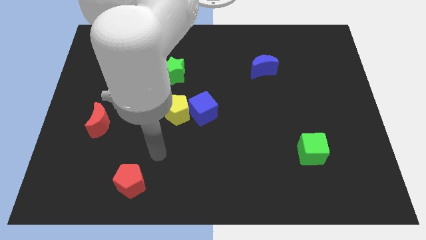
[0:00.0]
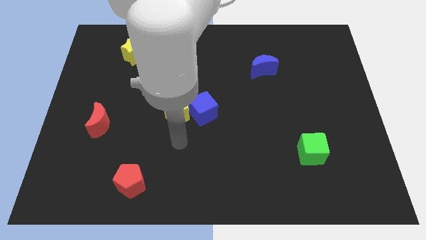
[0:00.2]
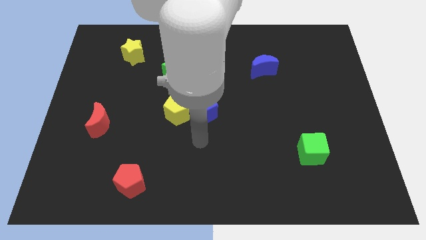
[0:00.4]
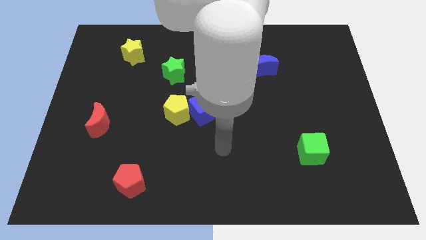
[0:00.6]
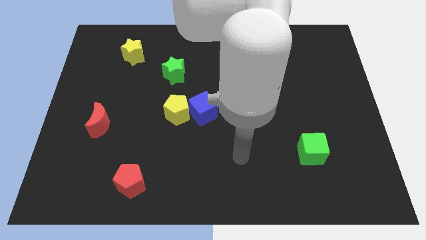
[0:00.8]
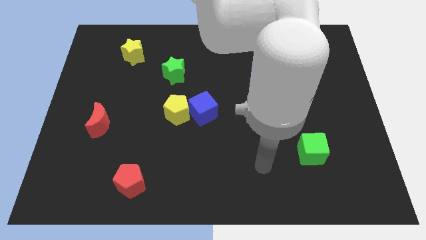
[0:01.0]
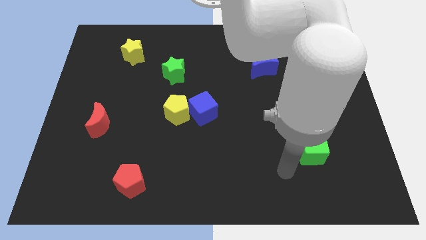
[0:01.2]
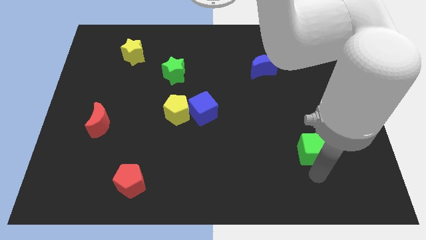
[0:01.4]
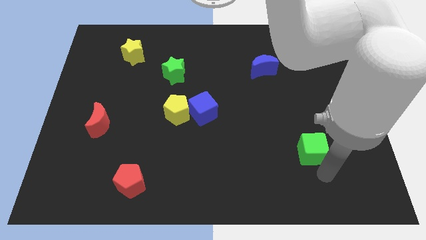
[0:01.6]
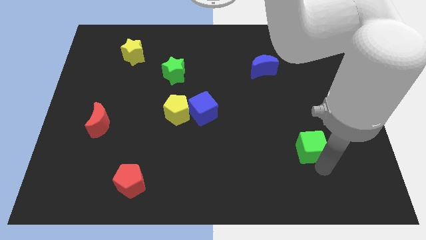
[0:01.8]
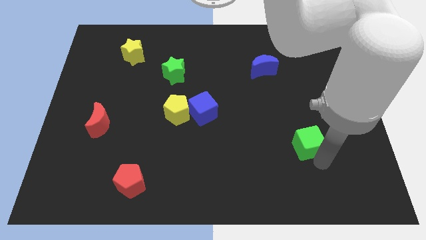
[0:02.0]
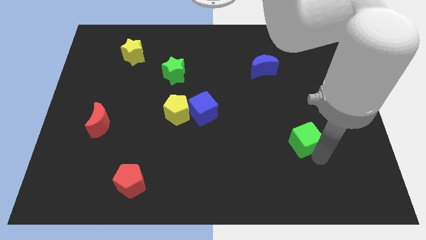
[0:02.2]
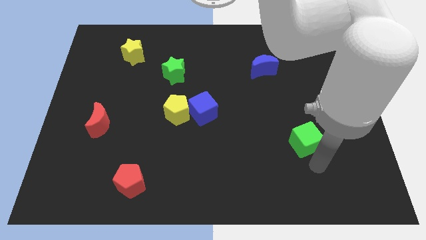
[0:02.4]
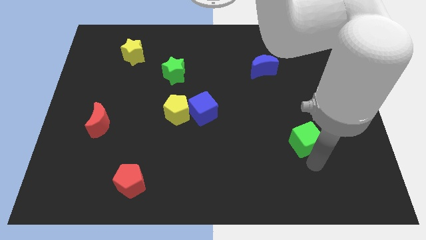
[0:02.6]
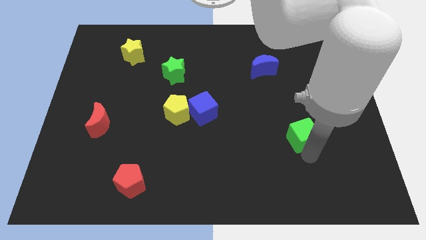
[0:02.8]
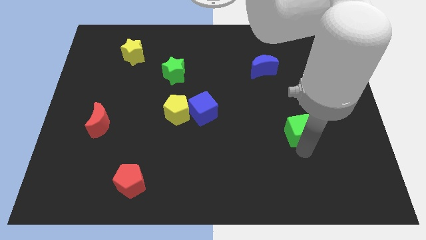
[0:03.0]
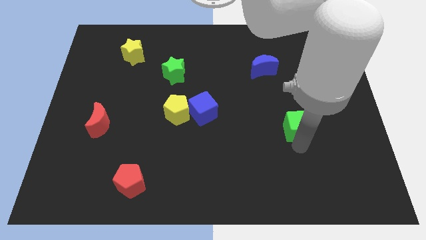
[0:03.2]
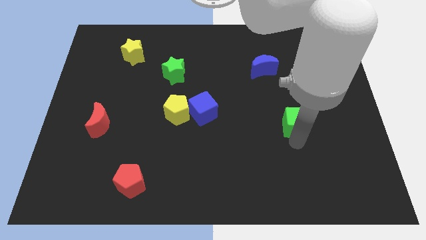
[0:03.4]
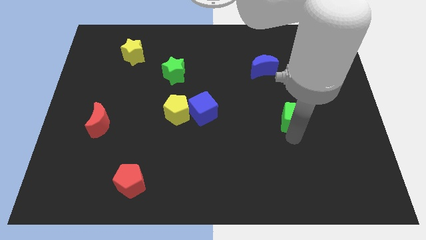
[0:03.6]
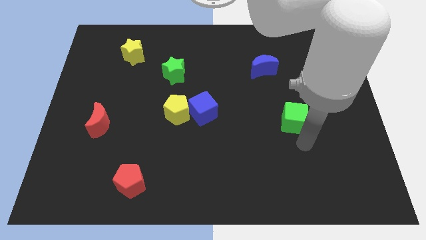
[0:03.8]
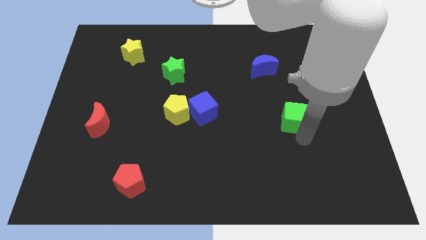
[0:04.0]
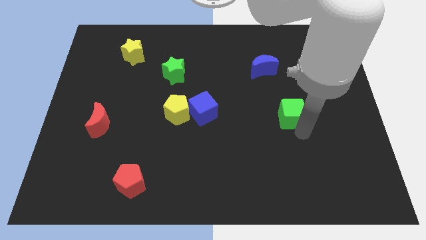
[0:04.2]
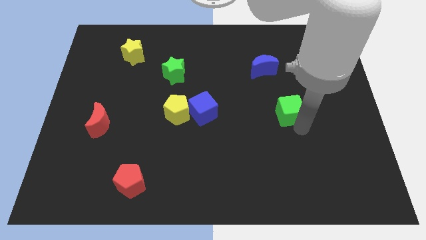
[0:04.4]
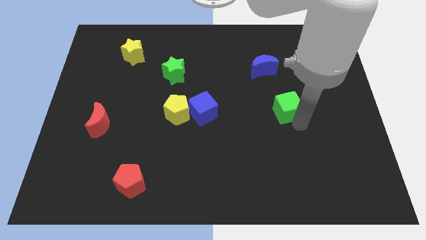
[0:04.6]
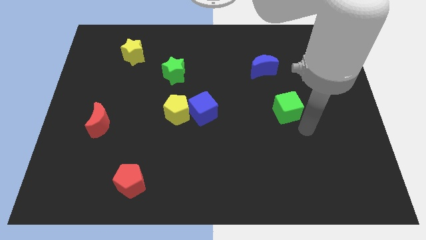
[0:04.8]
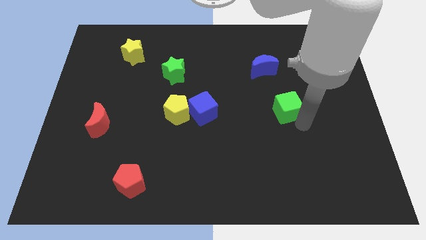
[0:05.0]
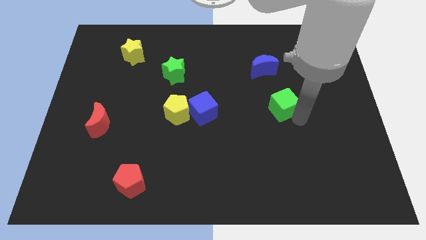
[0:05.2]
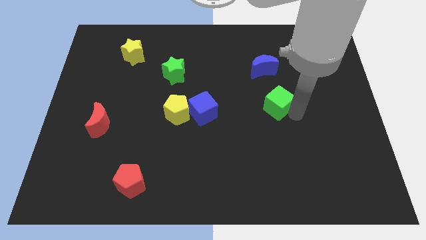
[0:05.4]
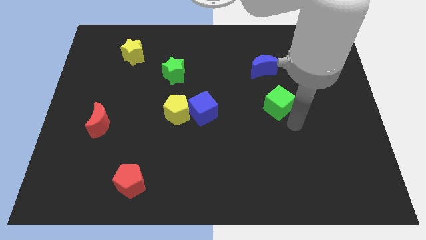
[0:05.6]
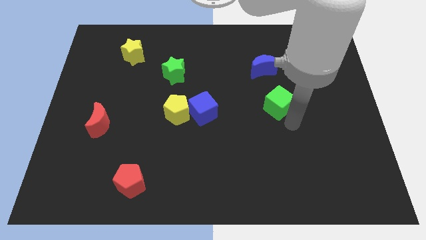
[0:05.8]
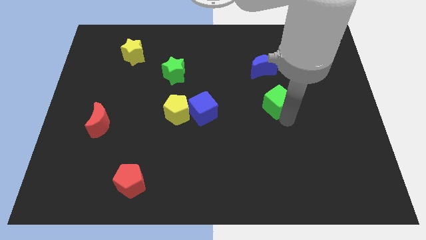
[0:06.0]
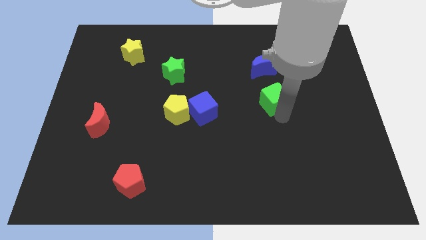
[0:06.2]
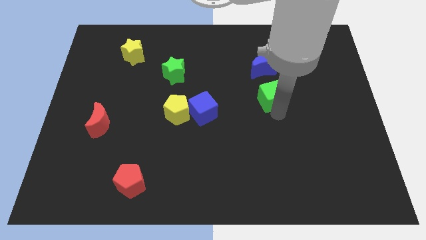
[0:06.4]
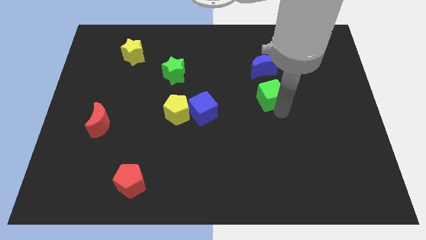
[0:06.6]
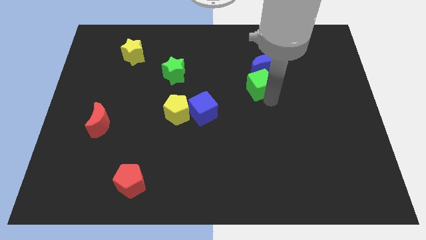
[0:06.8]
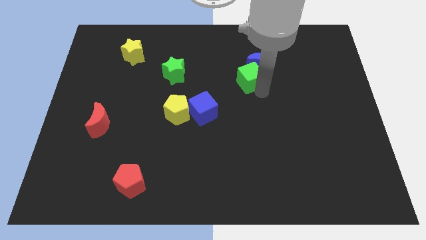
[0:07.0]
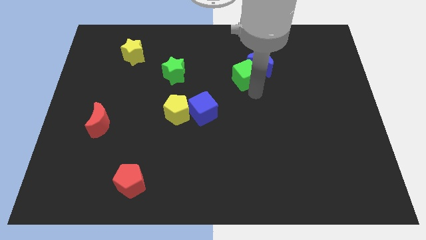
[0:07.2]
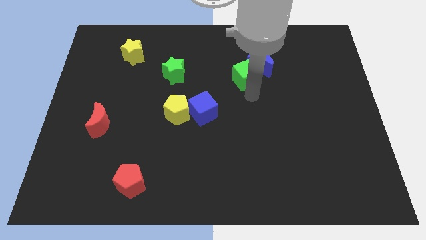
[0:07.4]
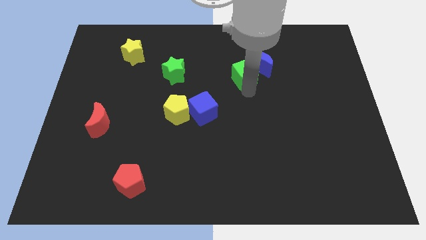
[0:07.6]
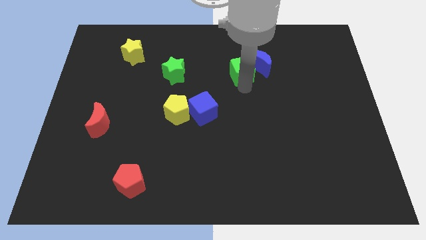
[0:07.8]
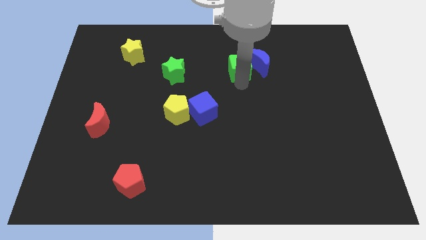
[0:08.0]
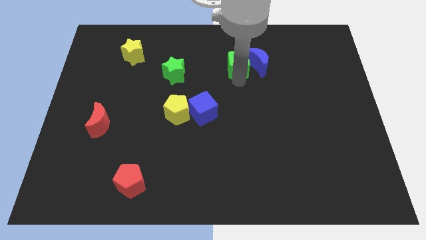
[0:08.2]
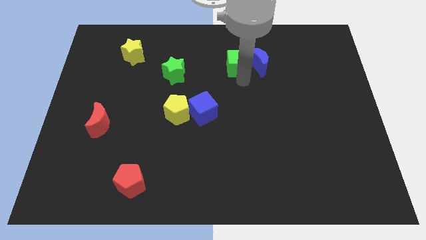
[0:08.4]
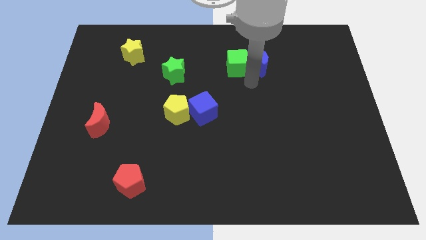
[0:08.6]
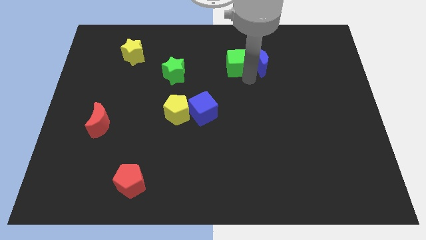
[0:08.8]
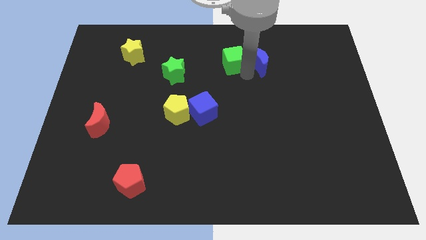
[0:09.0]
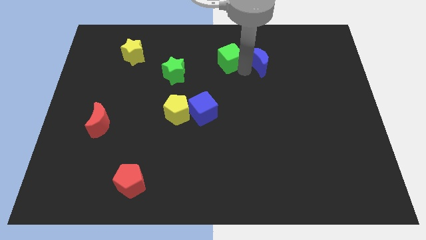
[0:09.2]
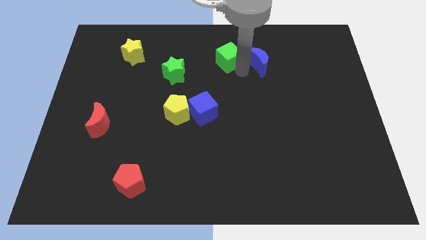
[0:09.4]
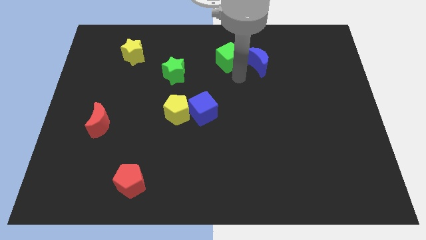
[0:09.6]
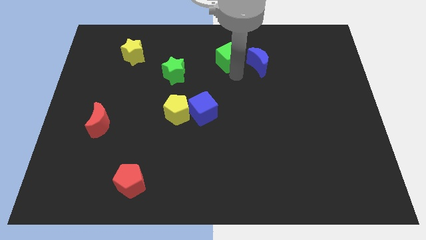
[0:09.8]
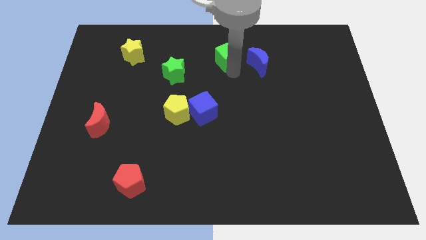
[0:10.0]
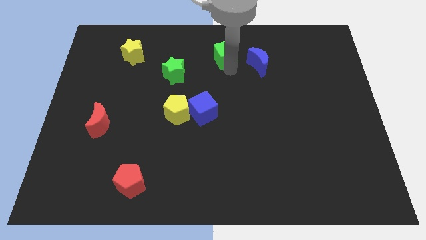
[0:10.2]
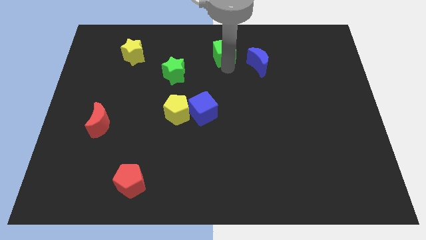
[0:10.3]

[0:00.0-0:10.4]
move the green cube to the top side

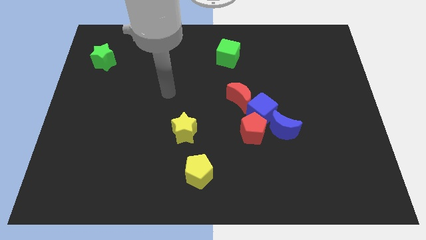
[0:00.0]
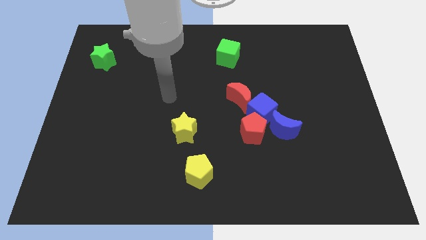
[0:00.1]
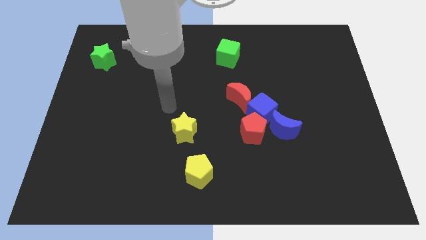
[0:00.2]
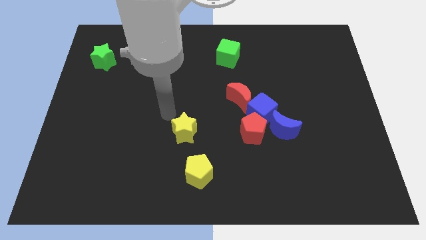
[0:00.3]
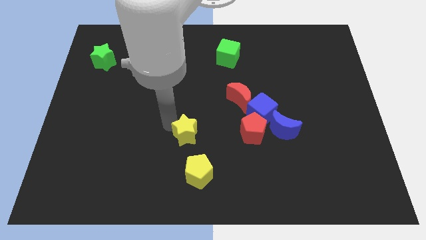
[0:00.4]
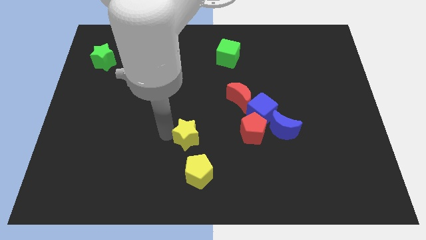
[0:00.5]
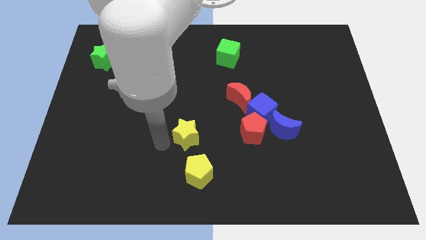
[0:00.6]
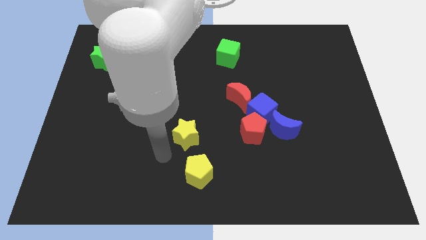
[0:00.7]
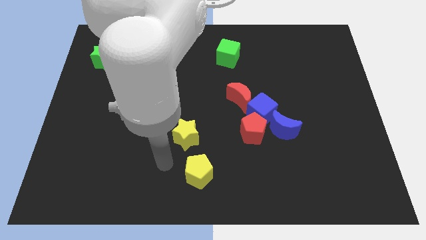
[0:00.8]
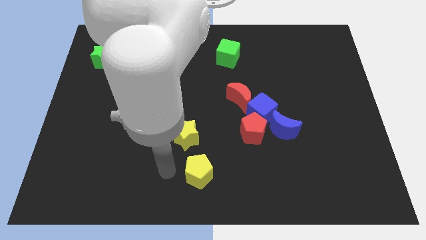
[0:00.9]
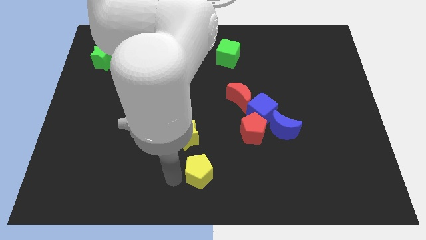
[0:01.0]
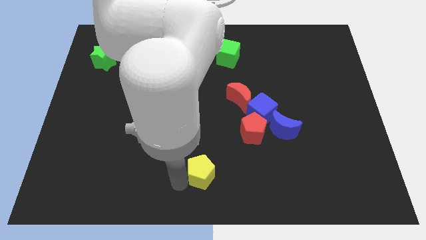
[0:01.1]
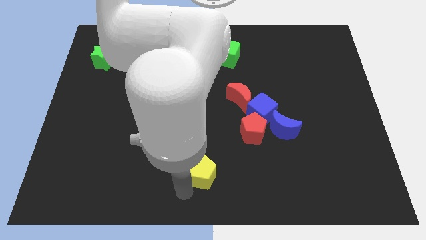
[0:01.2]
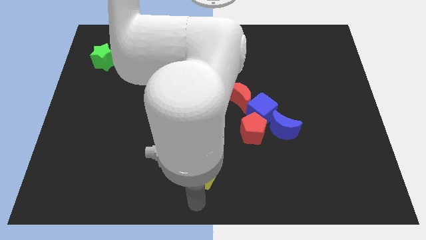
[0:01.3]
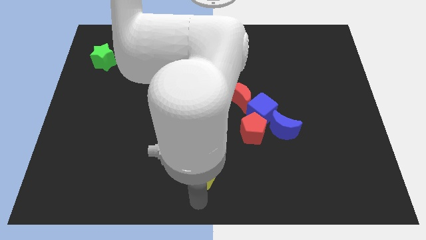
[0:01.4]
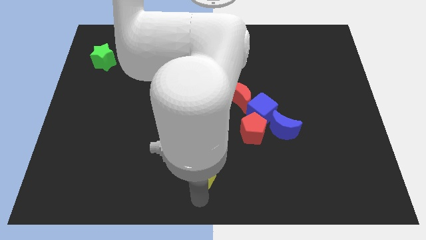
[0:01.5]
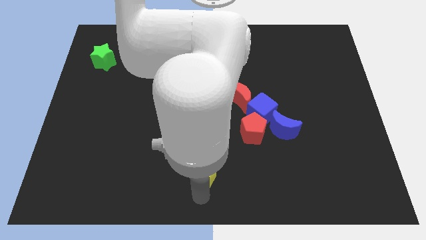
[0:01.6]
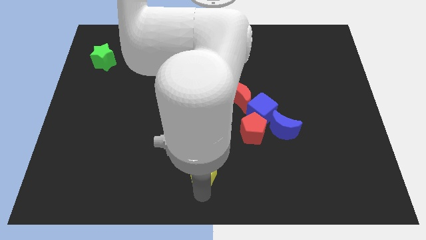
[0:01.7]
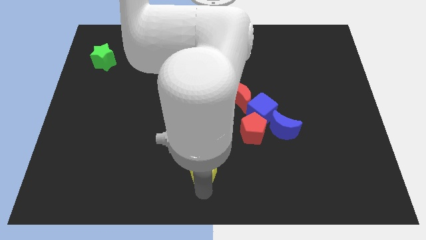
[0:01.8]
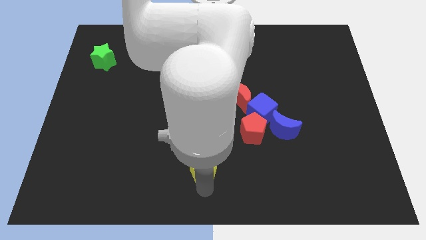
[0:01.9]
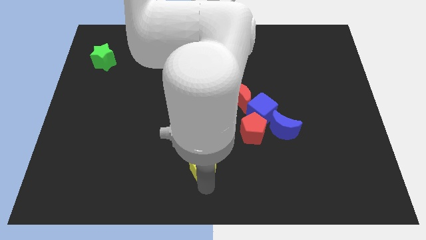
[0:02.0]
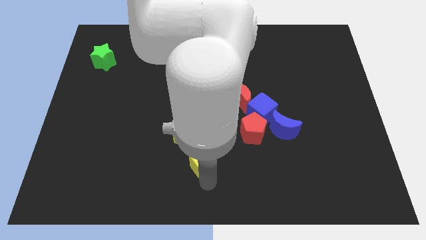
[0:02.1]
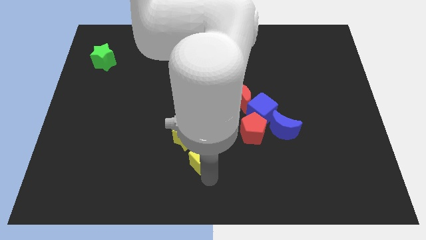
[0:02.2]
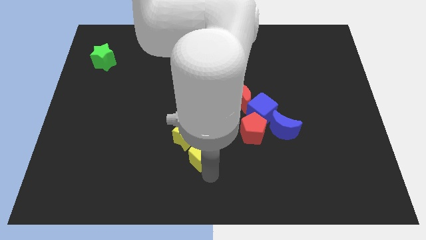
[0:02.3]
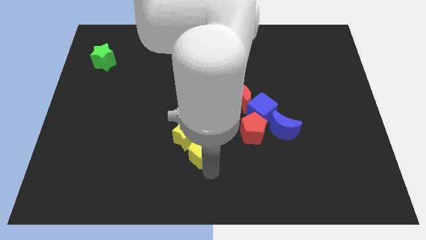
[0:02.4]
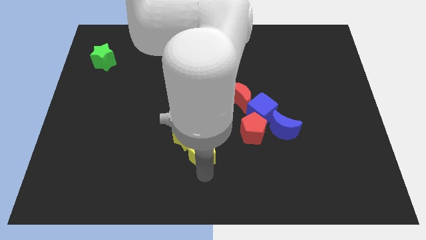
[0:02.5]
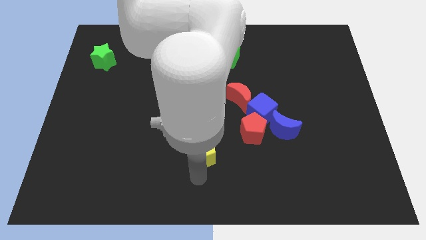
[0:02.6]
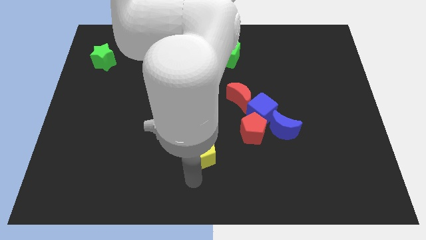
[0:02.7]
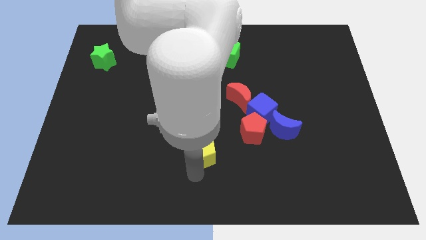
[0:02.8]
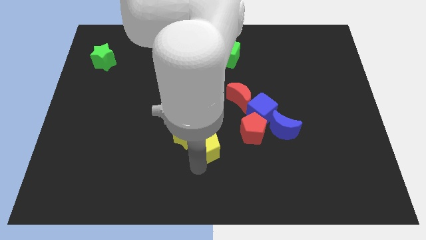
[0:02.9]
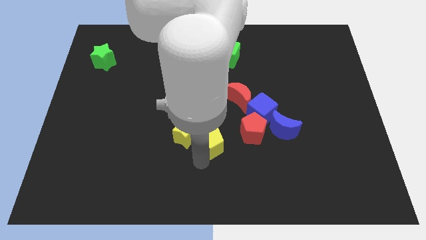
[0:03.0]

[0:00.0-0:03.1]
put the yellow pentagon to the center
